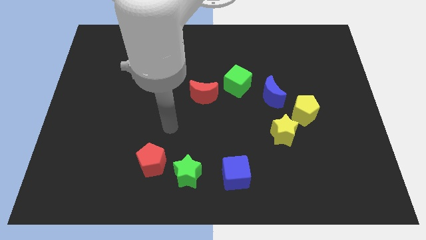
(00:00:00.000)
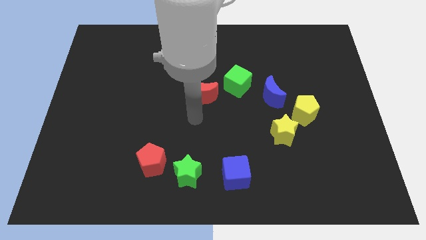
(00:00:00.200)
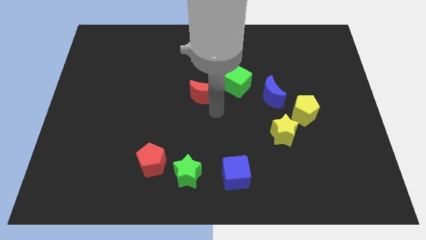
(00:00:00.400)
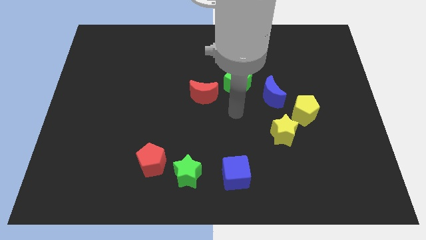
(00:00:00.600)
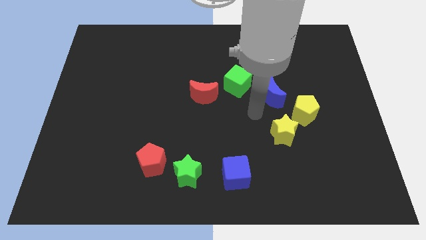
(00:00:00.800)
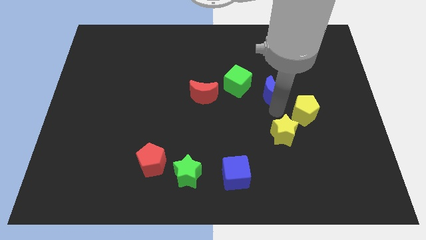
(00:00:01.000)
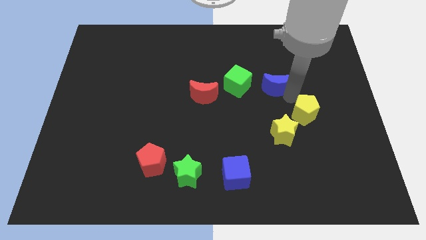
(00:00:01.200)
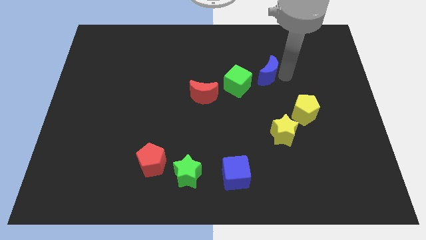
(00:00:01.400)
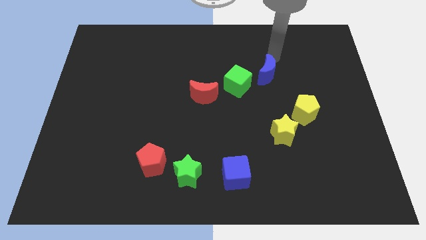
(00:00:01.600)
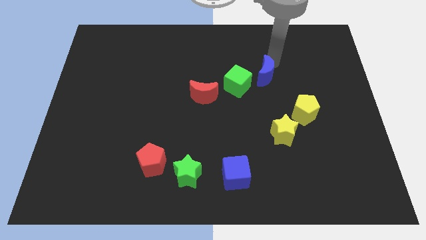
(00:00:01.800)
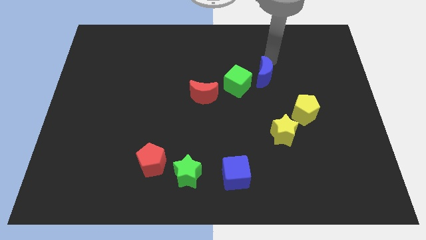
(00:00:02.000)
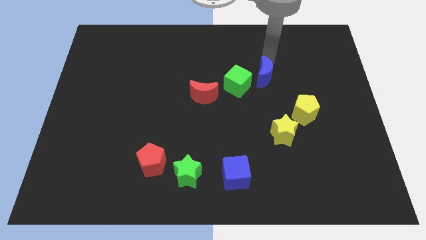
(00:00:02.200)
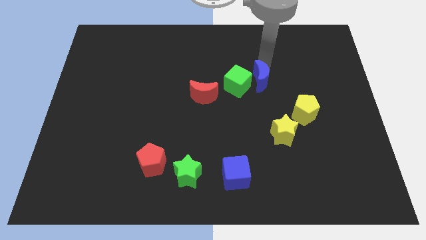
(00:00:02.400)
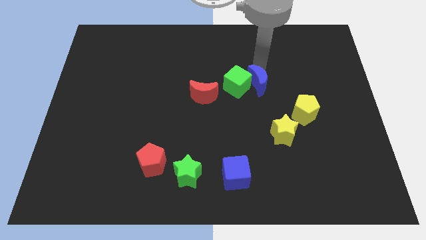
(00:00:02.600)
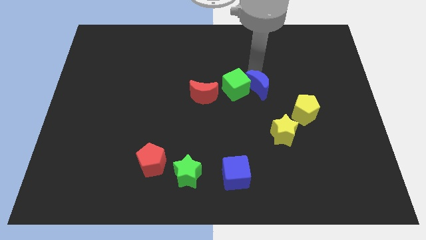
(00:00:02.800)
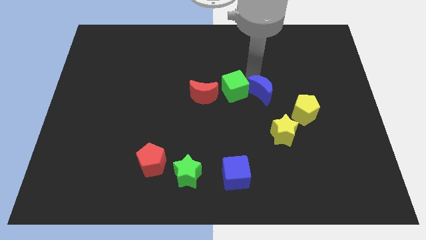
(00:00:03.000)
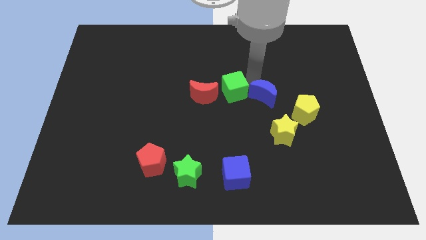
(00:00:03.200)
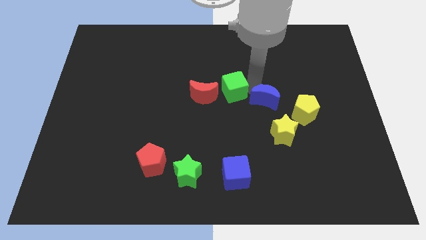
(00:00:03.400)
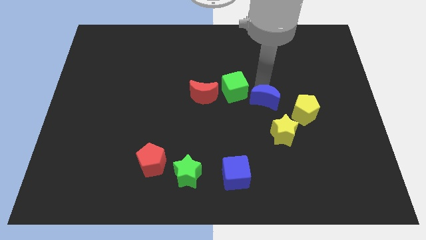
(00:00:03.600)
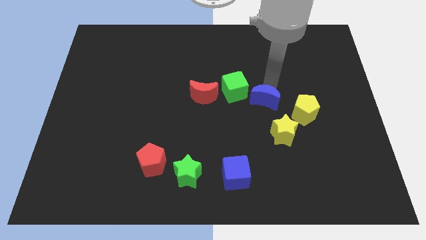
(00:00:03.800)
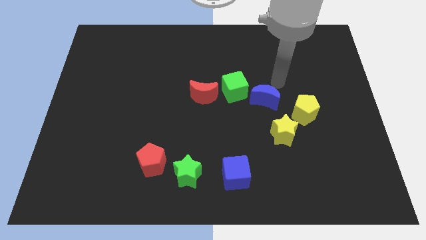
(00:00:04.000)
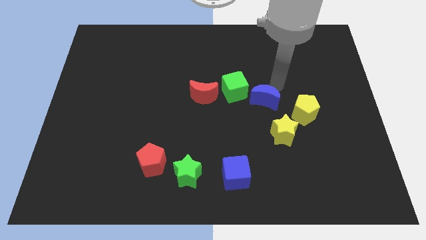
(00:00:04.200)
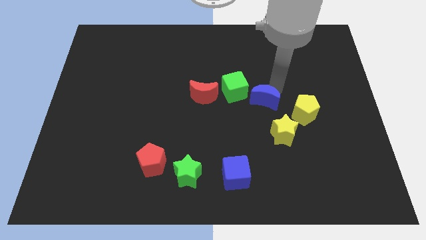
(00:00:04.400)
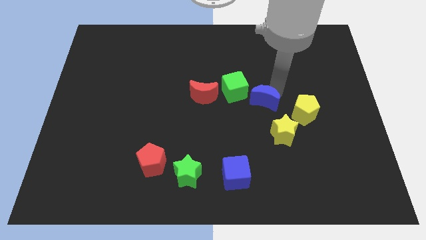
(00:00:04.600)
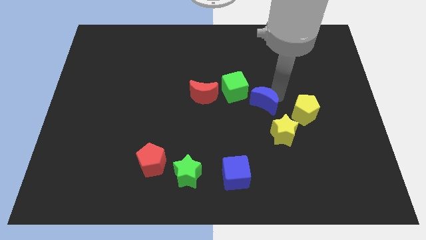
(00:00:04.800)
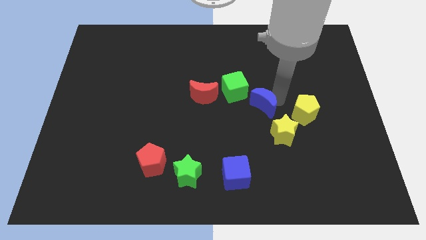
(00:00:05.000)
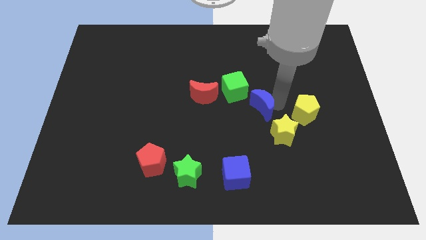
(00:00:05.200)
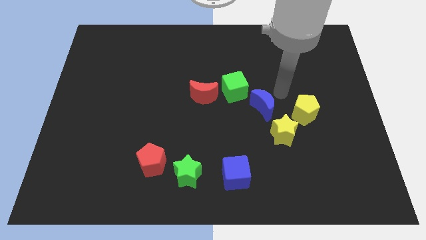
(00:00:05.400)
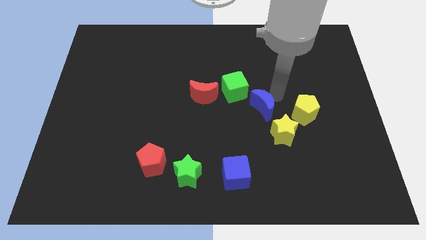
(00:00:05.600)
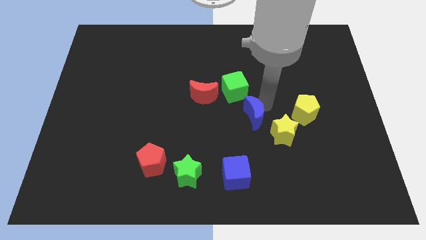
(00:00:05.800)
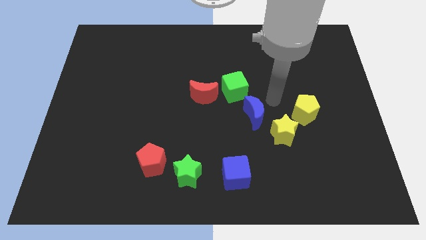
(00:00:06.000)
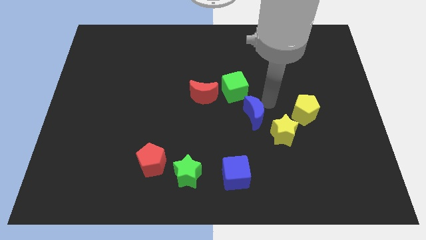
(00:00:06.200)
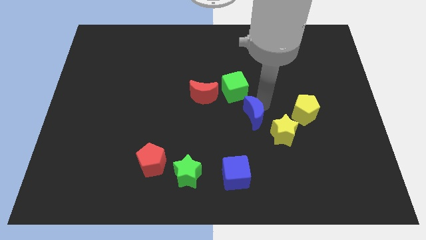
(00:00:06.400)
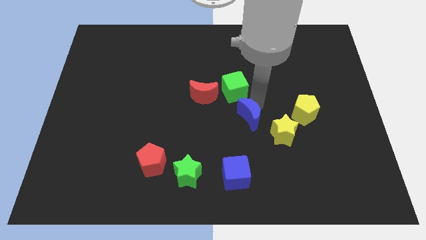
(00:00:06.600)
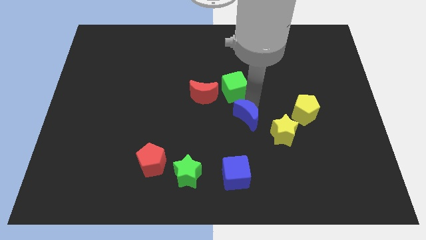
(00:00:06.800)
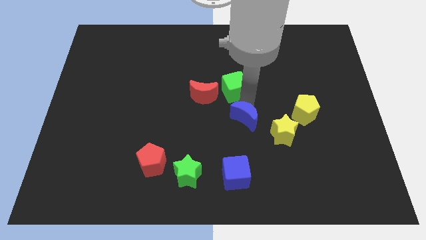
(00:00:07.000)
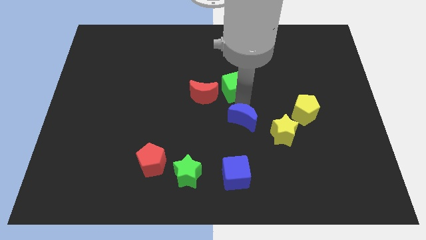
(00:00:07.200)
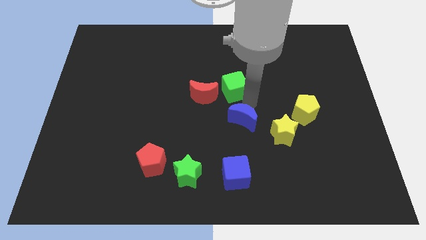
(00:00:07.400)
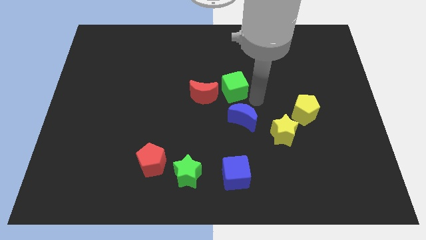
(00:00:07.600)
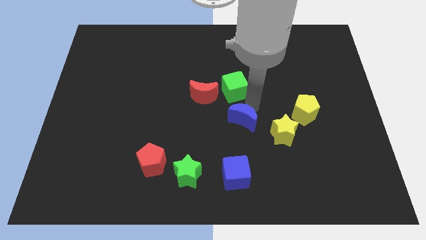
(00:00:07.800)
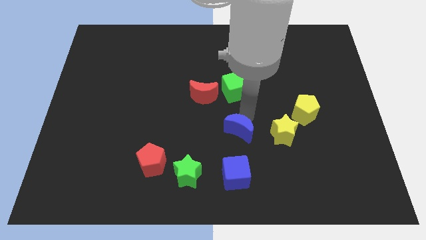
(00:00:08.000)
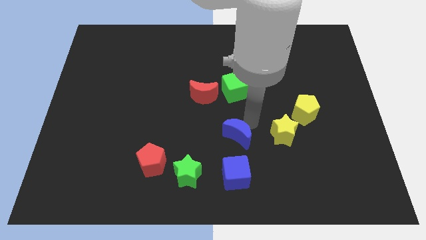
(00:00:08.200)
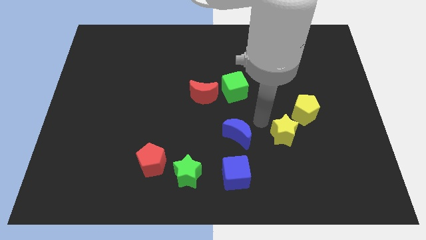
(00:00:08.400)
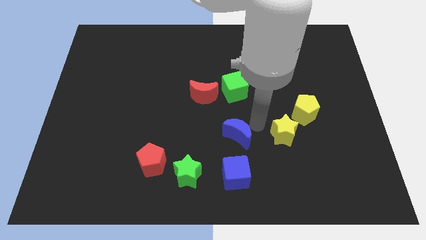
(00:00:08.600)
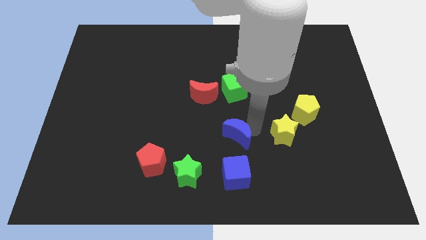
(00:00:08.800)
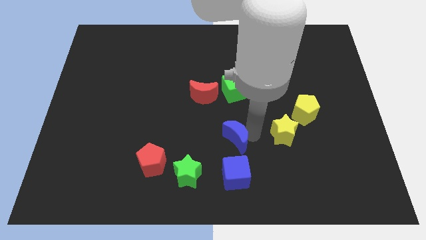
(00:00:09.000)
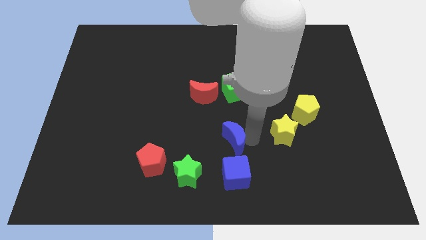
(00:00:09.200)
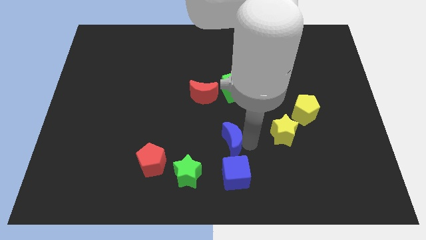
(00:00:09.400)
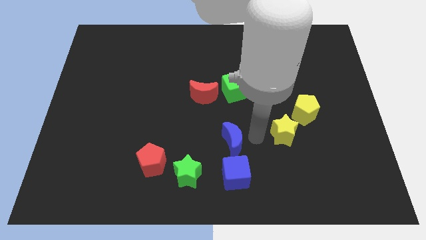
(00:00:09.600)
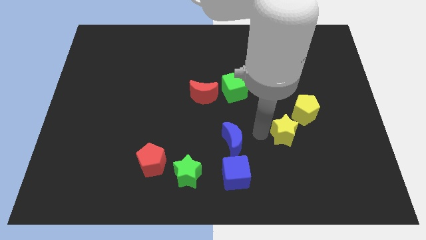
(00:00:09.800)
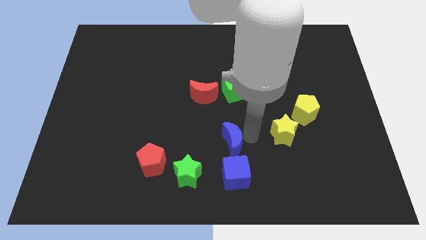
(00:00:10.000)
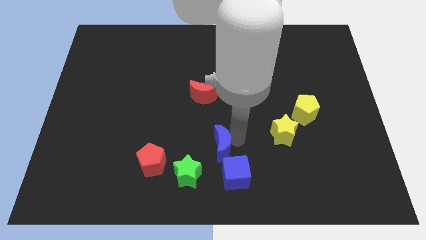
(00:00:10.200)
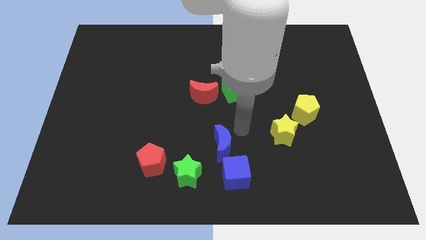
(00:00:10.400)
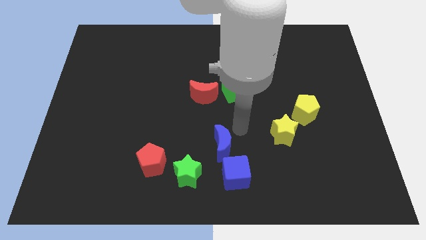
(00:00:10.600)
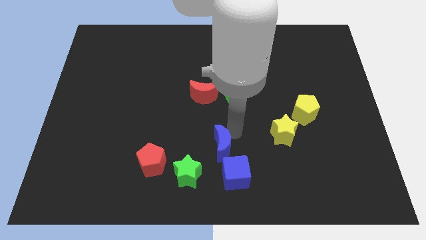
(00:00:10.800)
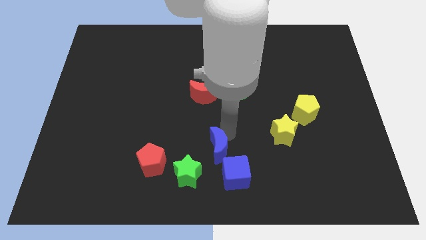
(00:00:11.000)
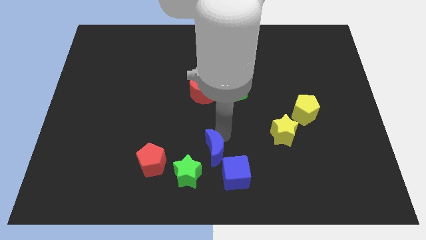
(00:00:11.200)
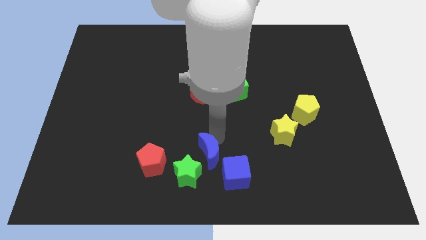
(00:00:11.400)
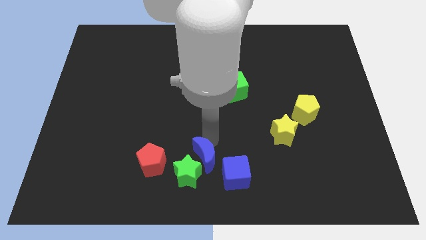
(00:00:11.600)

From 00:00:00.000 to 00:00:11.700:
push the blue moon close to the green star

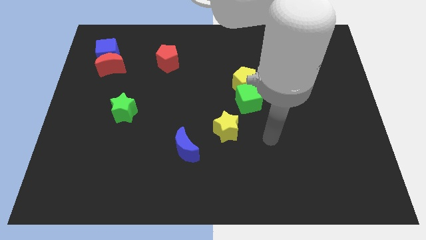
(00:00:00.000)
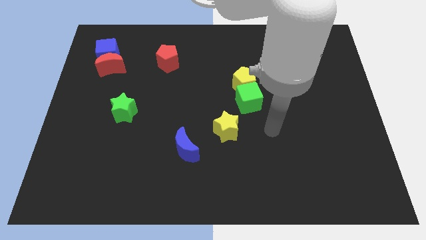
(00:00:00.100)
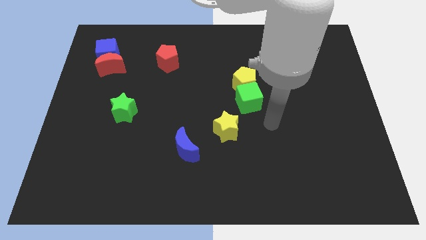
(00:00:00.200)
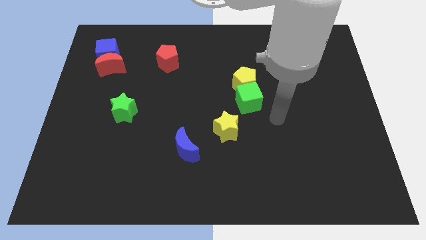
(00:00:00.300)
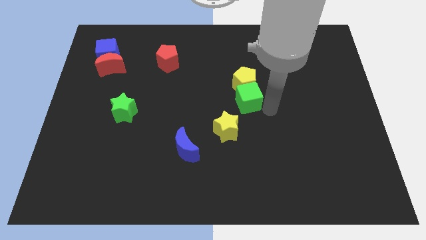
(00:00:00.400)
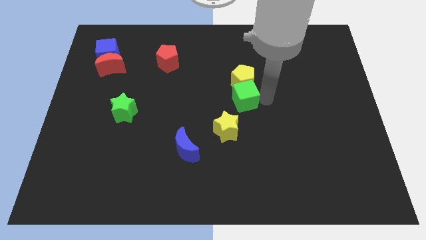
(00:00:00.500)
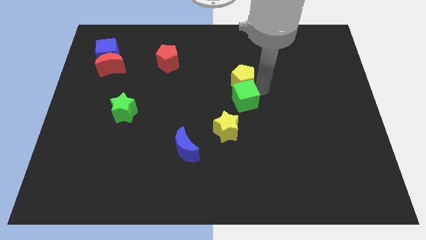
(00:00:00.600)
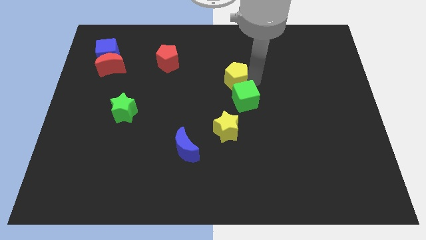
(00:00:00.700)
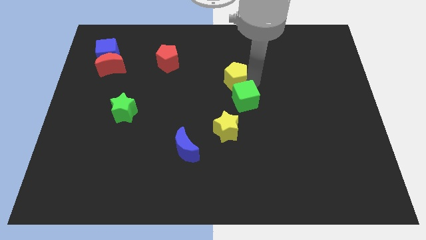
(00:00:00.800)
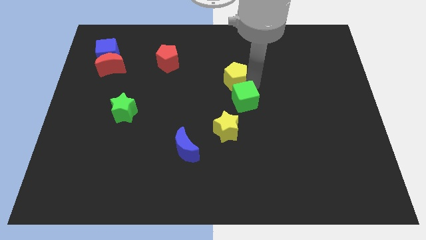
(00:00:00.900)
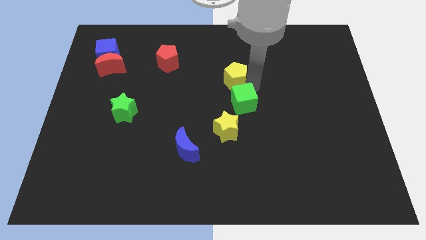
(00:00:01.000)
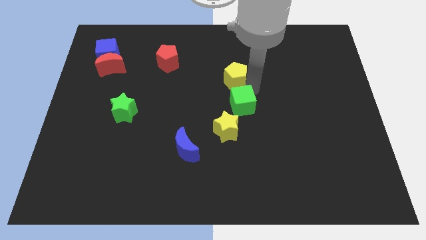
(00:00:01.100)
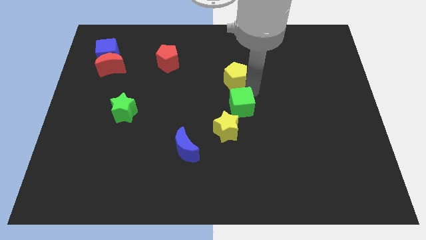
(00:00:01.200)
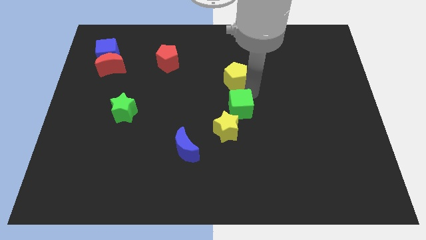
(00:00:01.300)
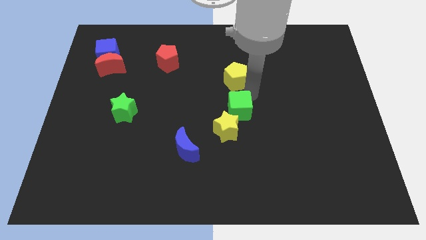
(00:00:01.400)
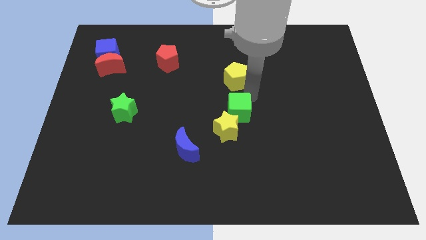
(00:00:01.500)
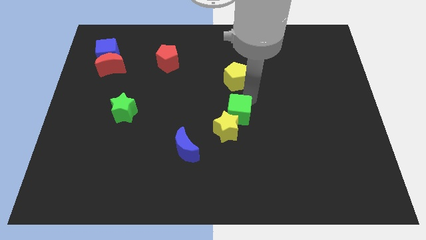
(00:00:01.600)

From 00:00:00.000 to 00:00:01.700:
push the green cube towards the yellow star
